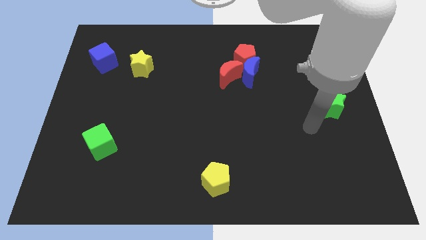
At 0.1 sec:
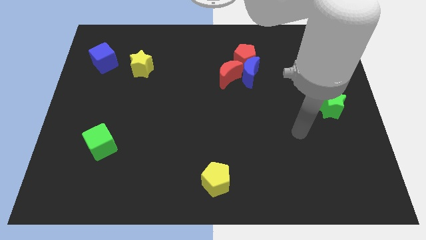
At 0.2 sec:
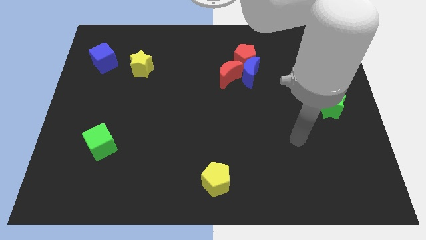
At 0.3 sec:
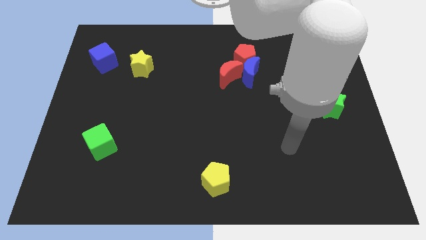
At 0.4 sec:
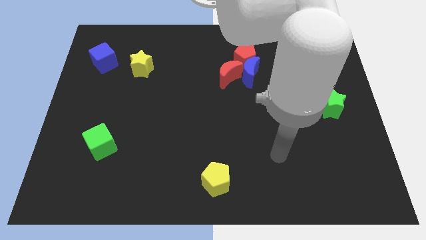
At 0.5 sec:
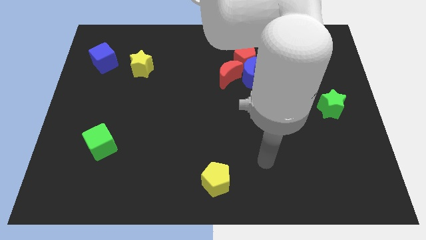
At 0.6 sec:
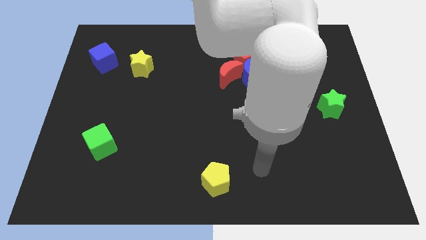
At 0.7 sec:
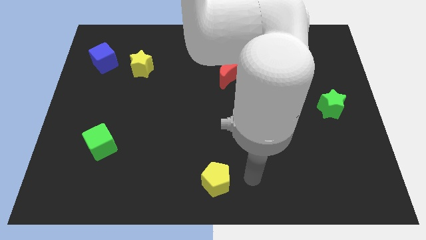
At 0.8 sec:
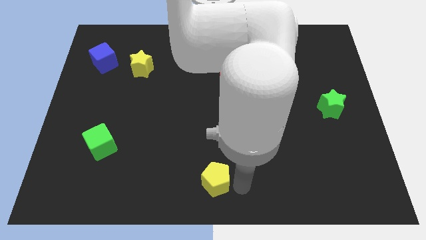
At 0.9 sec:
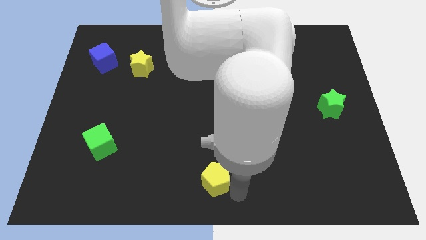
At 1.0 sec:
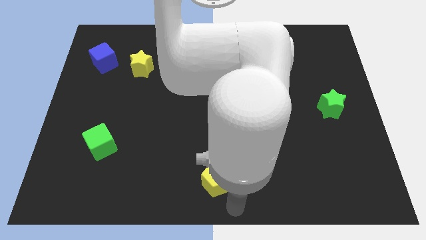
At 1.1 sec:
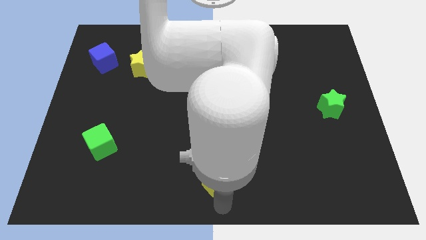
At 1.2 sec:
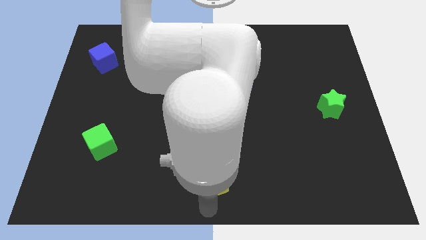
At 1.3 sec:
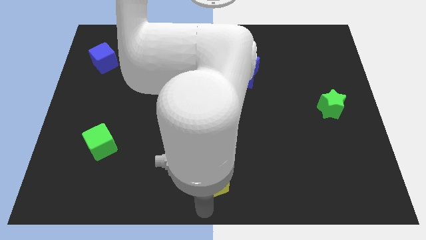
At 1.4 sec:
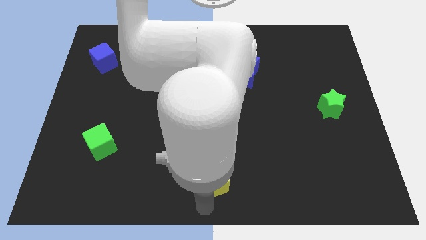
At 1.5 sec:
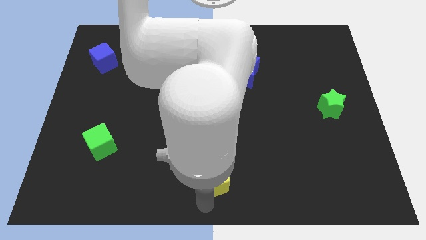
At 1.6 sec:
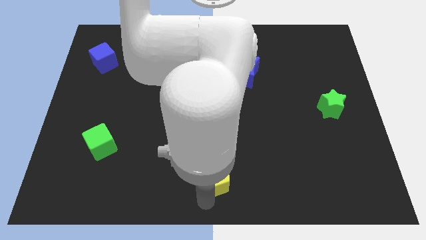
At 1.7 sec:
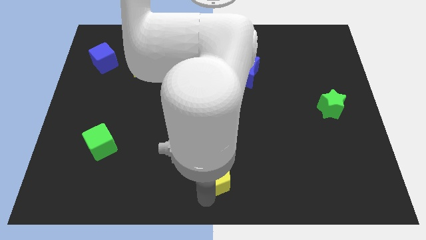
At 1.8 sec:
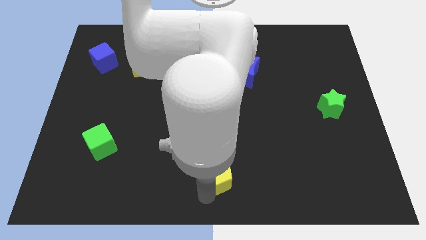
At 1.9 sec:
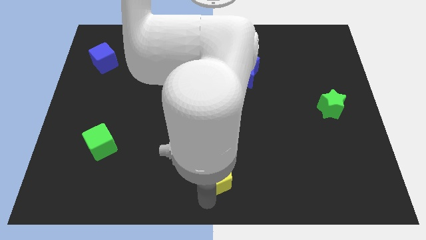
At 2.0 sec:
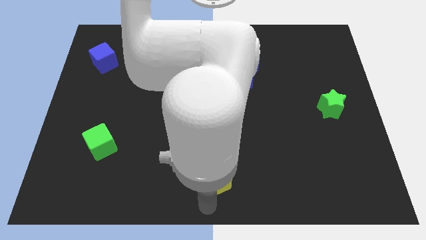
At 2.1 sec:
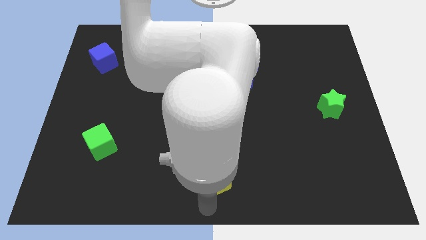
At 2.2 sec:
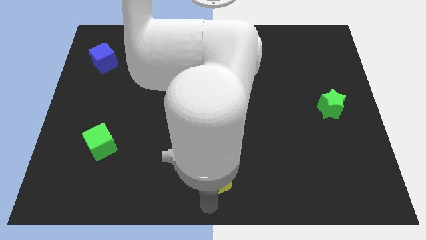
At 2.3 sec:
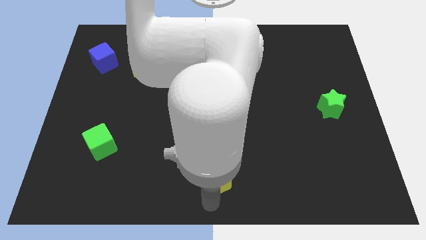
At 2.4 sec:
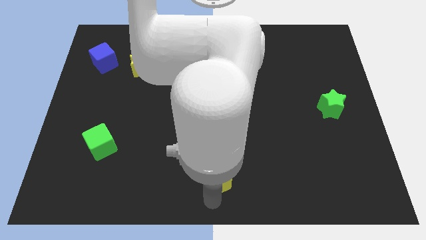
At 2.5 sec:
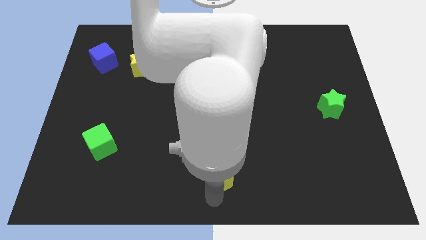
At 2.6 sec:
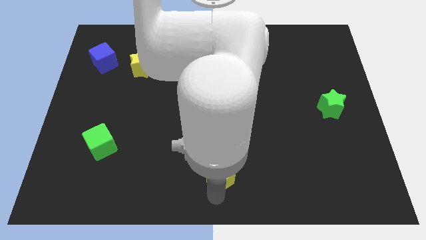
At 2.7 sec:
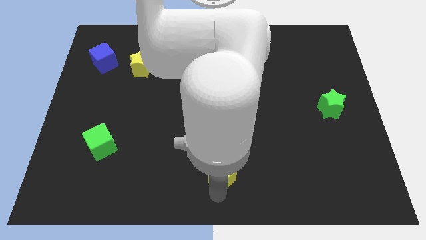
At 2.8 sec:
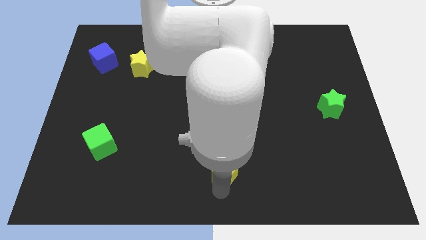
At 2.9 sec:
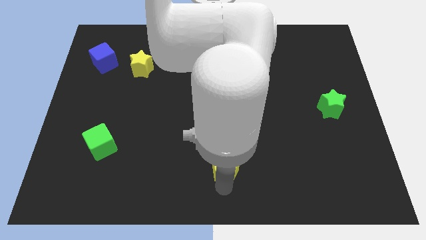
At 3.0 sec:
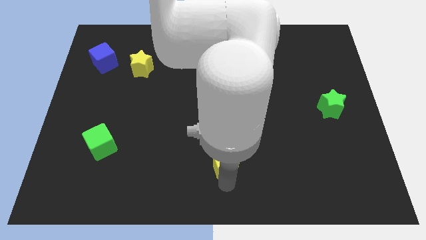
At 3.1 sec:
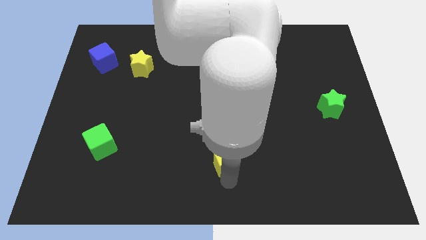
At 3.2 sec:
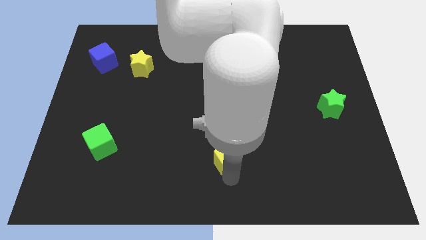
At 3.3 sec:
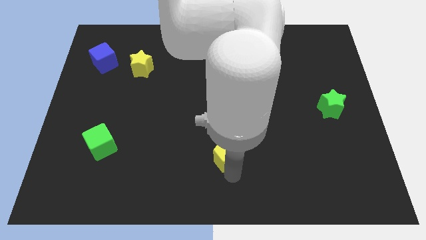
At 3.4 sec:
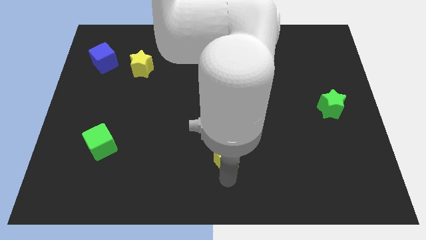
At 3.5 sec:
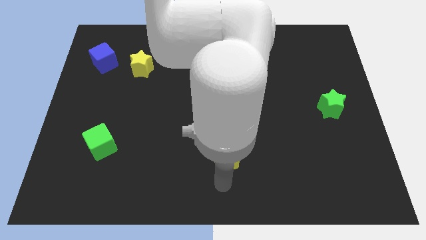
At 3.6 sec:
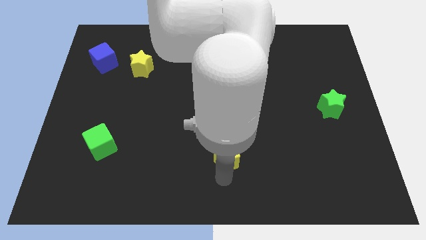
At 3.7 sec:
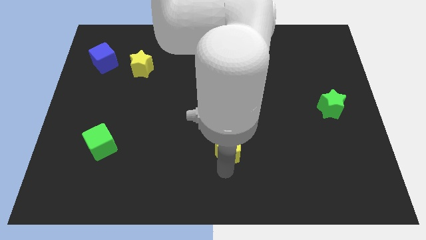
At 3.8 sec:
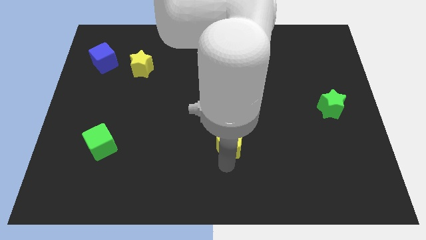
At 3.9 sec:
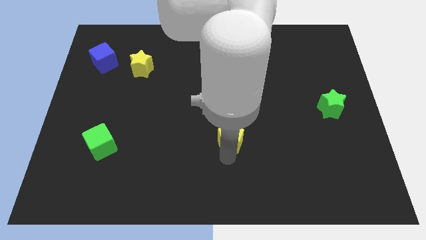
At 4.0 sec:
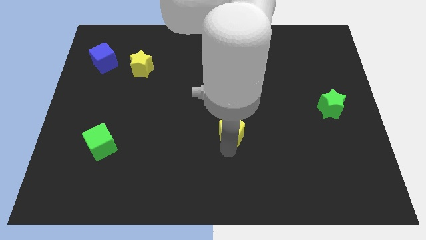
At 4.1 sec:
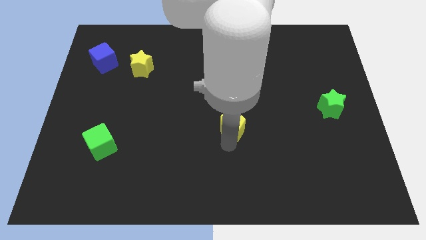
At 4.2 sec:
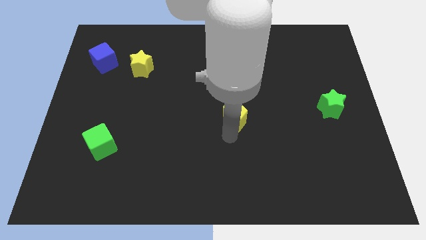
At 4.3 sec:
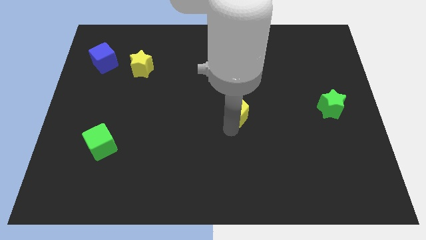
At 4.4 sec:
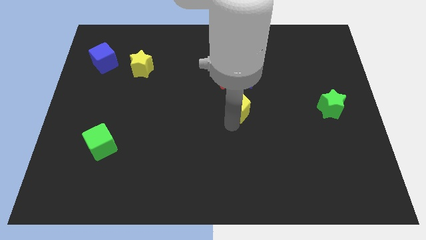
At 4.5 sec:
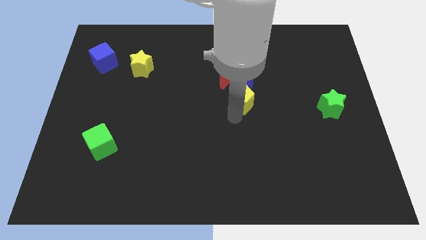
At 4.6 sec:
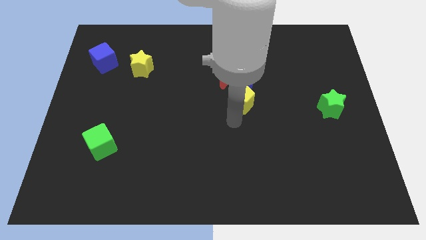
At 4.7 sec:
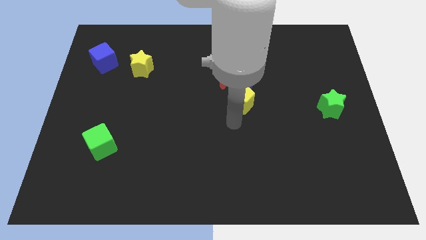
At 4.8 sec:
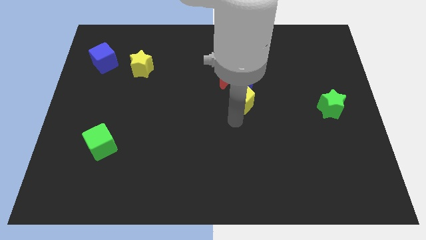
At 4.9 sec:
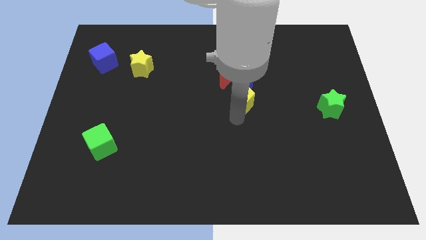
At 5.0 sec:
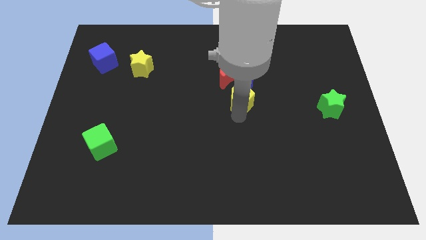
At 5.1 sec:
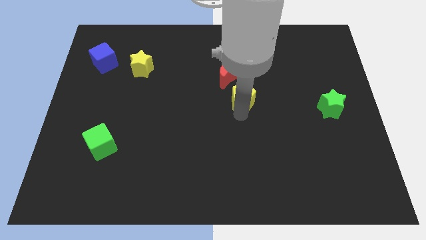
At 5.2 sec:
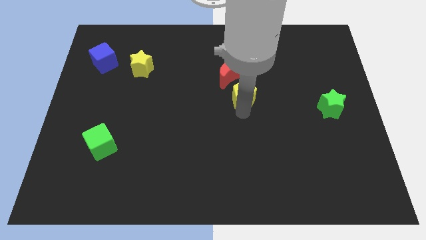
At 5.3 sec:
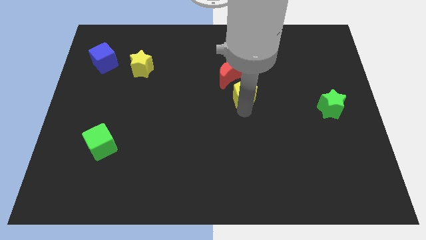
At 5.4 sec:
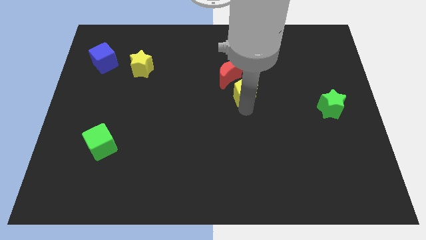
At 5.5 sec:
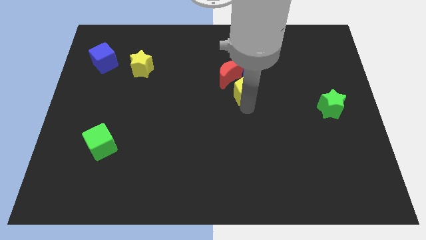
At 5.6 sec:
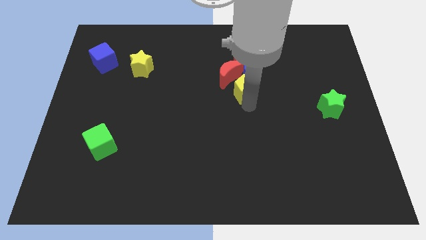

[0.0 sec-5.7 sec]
slide the yellow pentagon close to the blue moon

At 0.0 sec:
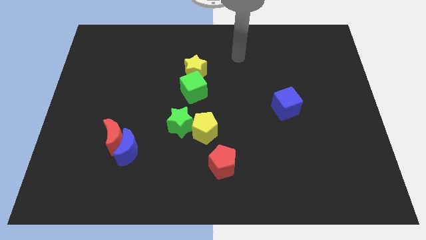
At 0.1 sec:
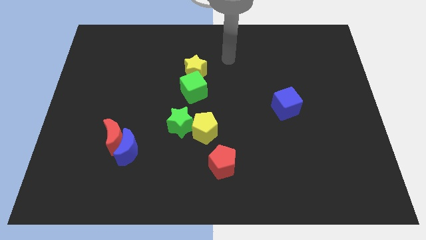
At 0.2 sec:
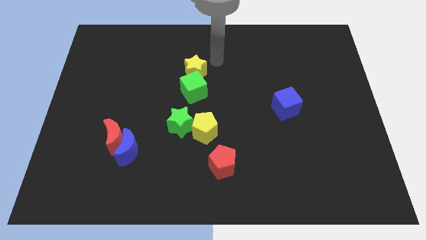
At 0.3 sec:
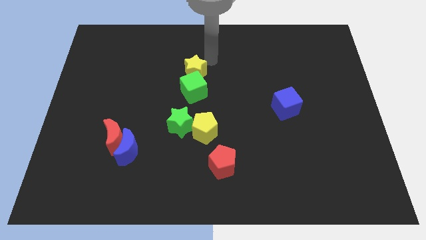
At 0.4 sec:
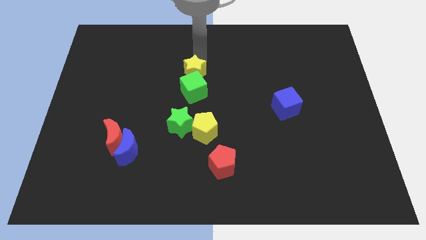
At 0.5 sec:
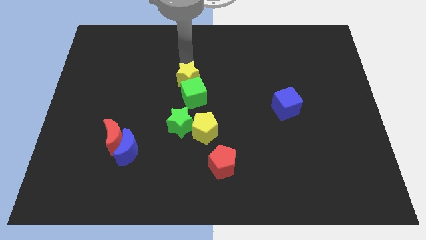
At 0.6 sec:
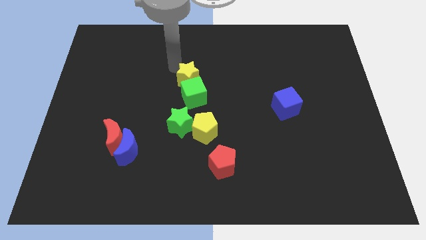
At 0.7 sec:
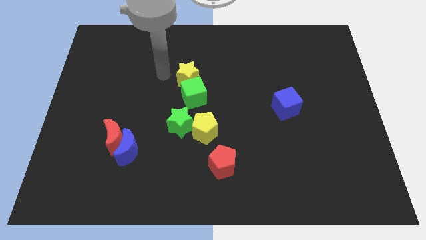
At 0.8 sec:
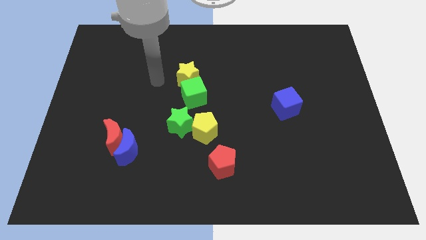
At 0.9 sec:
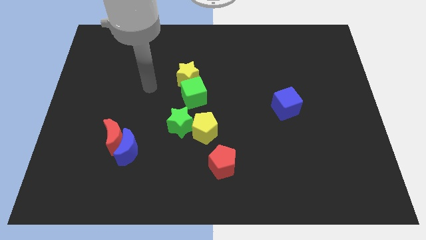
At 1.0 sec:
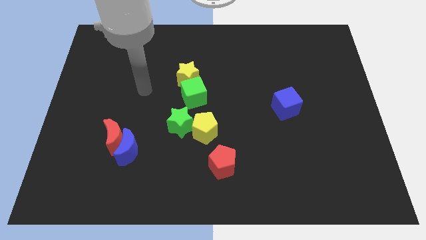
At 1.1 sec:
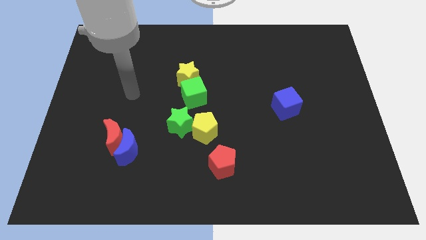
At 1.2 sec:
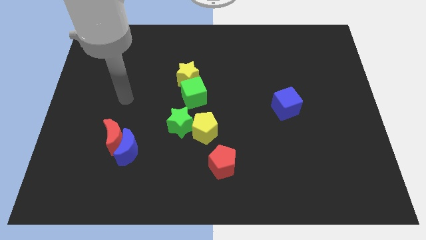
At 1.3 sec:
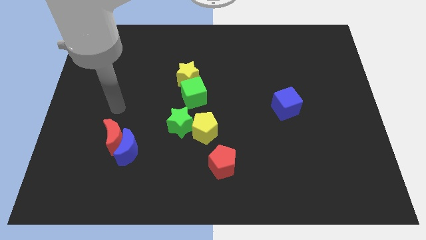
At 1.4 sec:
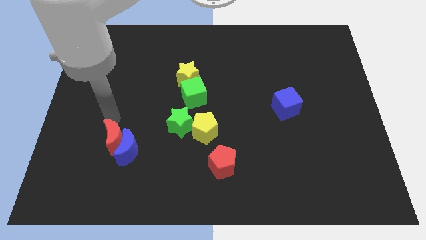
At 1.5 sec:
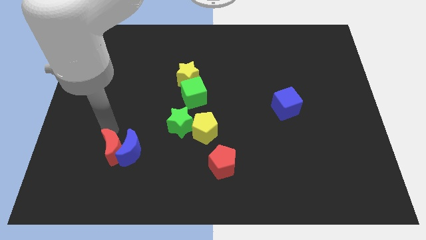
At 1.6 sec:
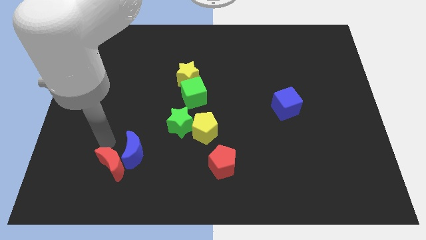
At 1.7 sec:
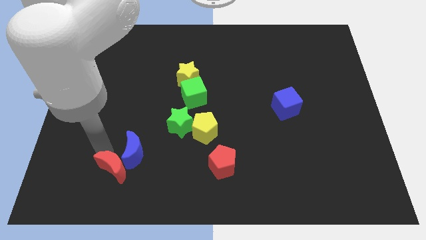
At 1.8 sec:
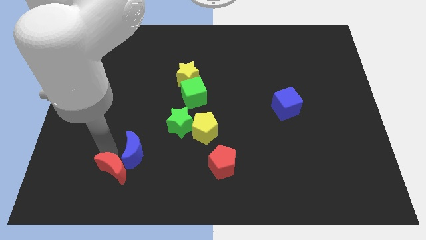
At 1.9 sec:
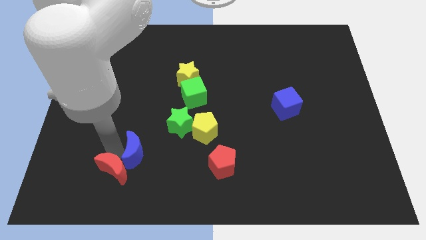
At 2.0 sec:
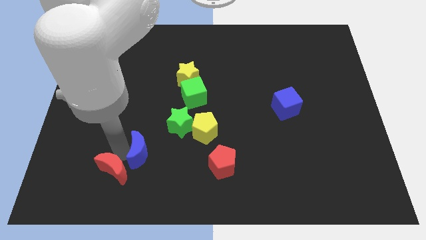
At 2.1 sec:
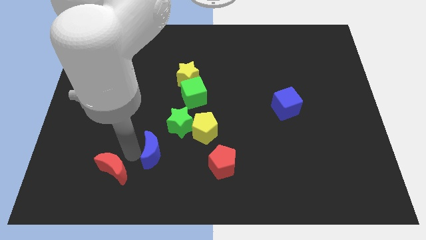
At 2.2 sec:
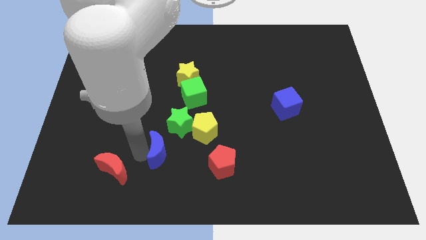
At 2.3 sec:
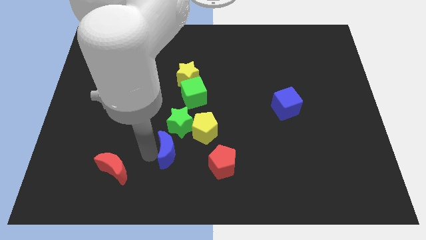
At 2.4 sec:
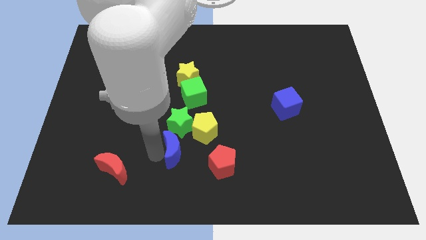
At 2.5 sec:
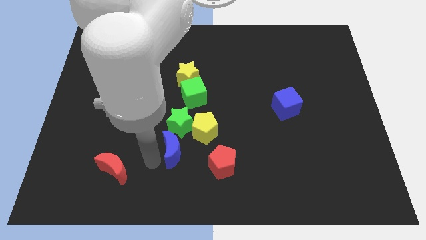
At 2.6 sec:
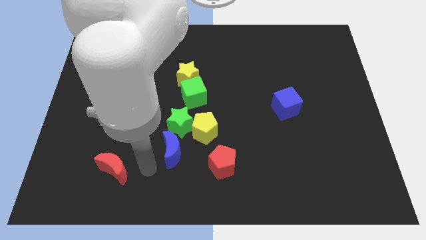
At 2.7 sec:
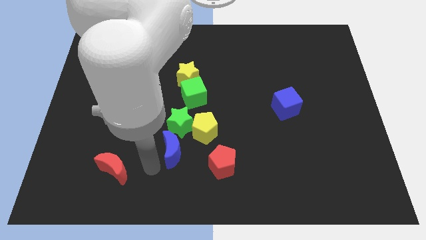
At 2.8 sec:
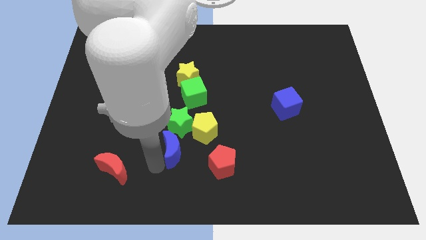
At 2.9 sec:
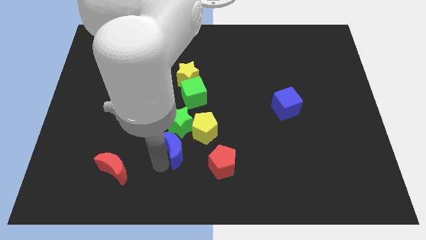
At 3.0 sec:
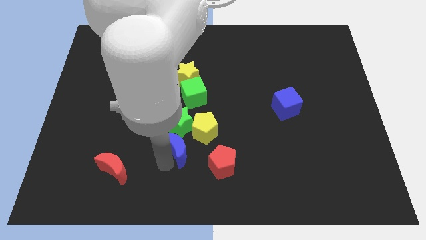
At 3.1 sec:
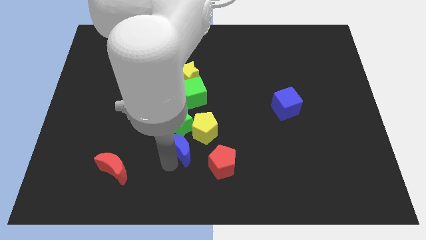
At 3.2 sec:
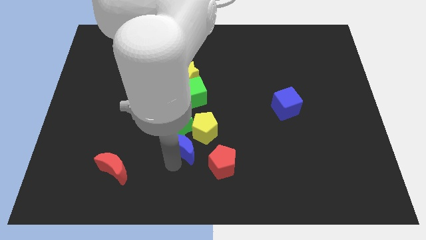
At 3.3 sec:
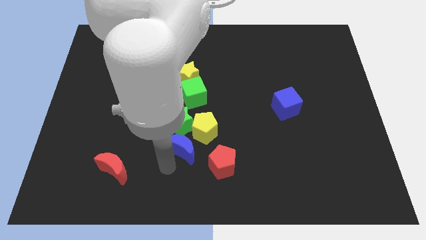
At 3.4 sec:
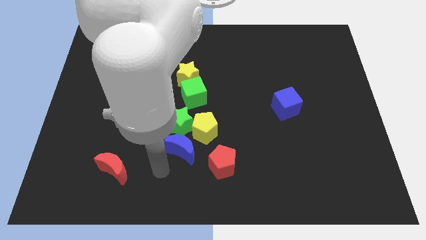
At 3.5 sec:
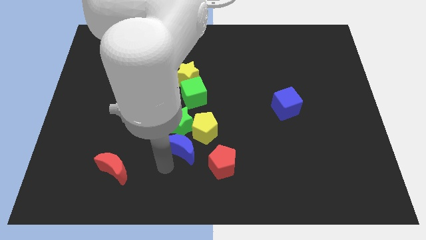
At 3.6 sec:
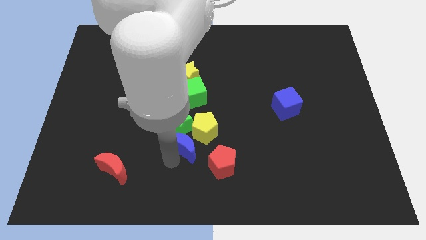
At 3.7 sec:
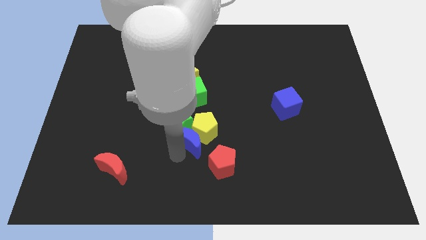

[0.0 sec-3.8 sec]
put the blue moon next to the yellow pentagon
